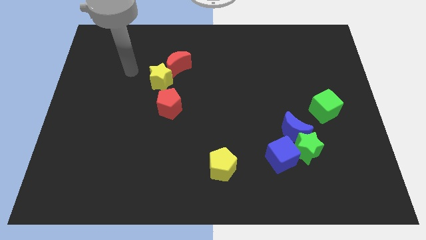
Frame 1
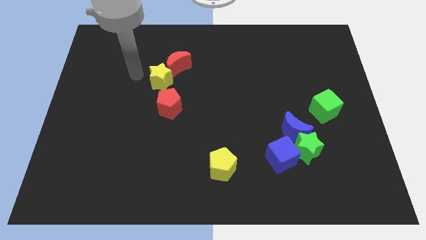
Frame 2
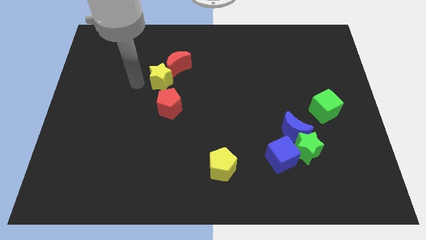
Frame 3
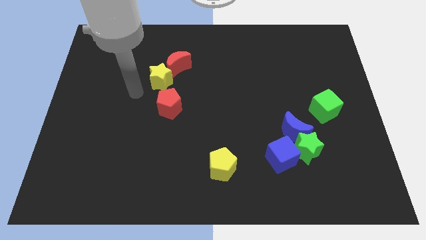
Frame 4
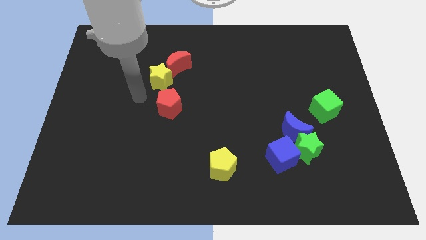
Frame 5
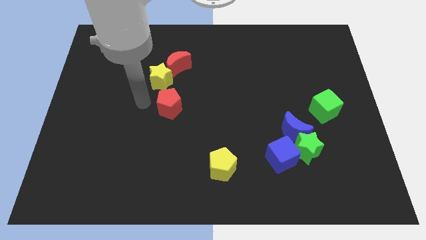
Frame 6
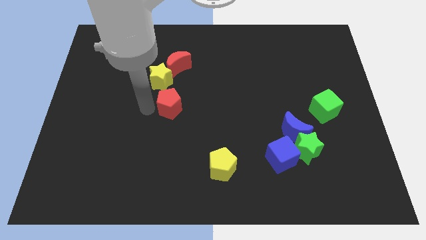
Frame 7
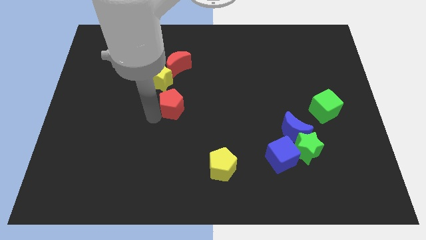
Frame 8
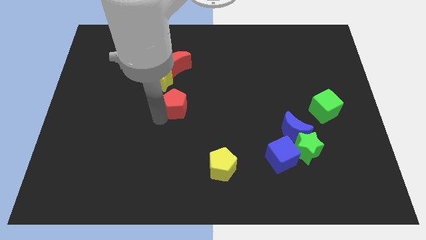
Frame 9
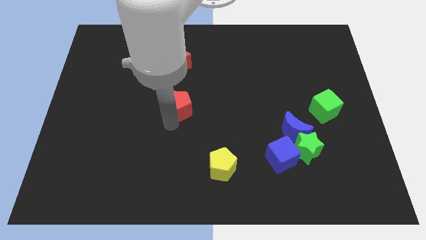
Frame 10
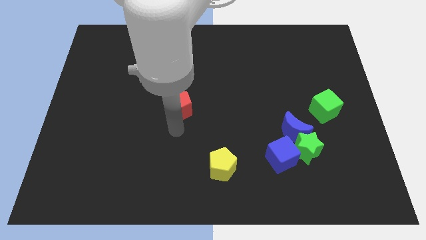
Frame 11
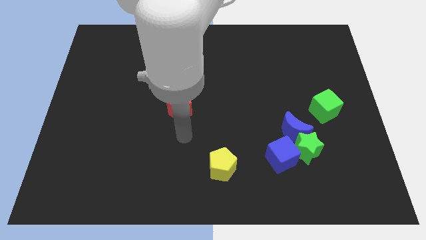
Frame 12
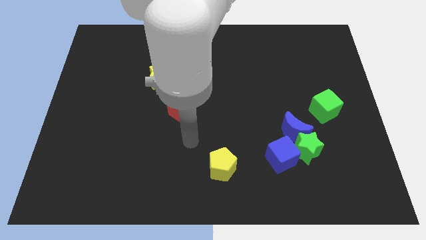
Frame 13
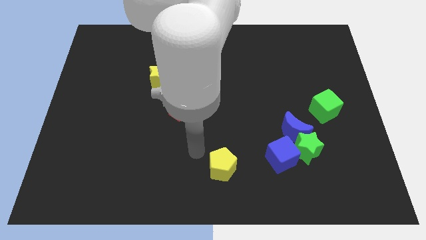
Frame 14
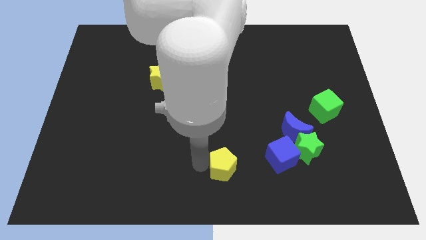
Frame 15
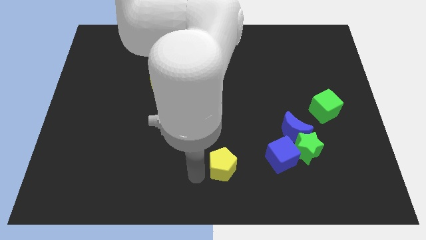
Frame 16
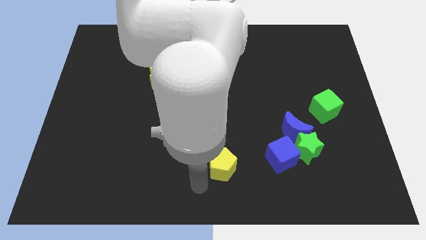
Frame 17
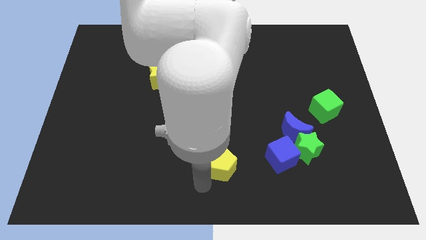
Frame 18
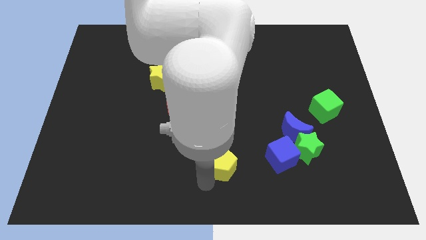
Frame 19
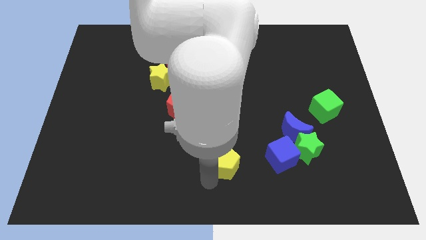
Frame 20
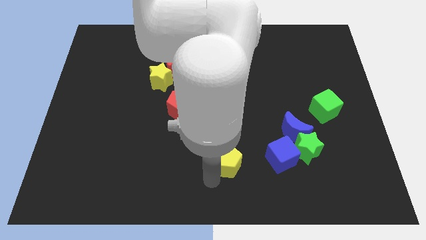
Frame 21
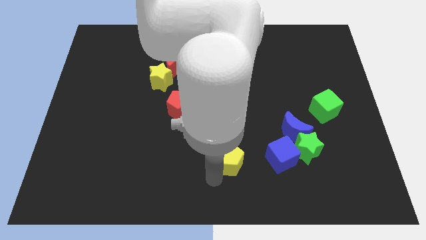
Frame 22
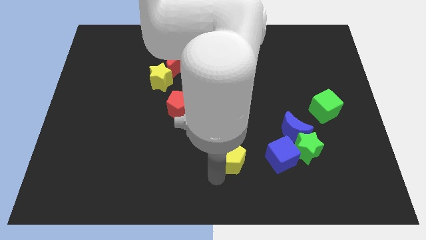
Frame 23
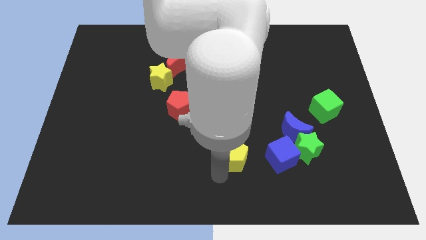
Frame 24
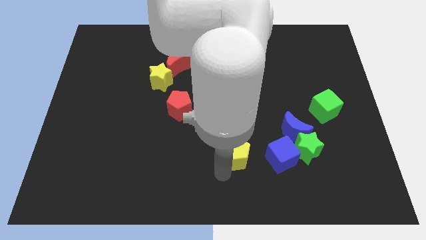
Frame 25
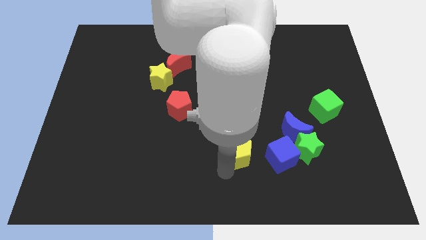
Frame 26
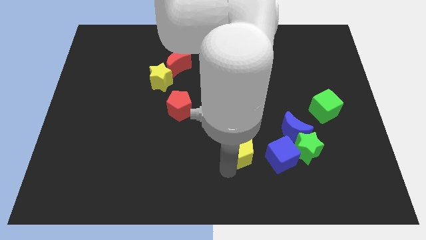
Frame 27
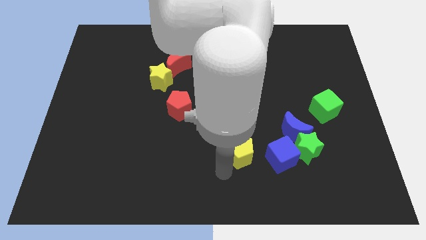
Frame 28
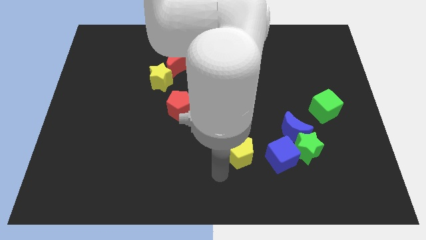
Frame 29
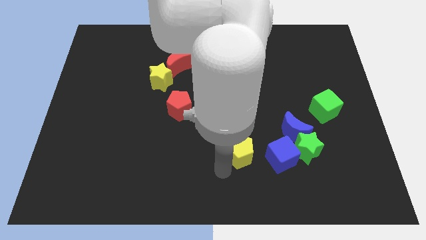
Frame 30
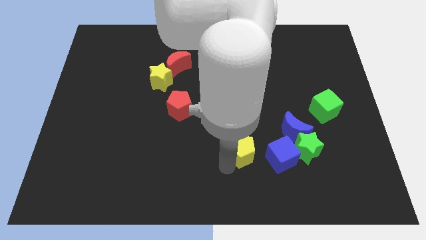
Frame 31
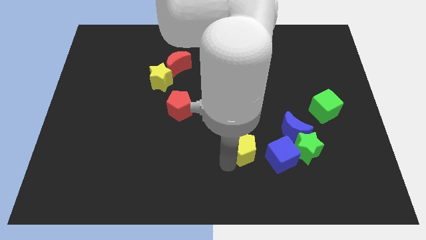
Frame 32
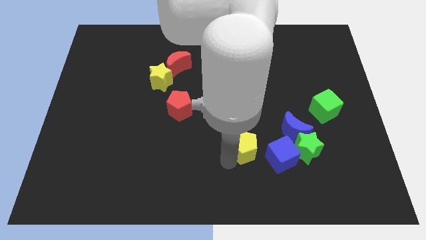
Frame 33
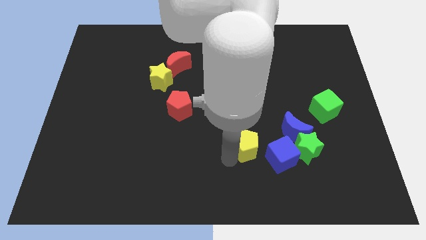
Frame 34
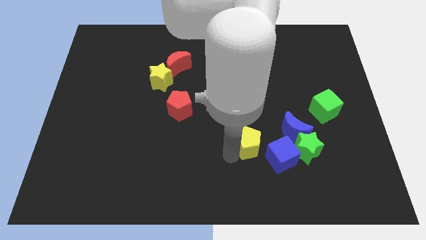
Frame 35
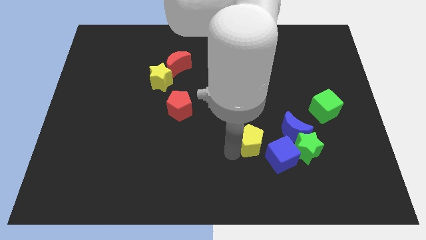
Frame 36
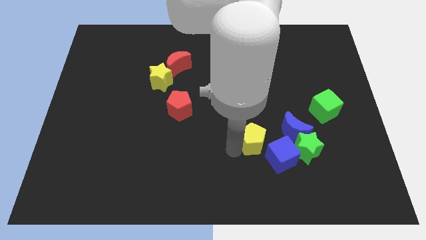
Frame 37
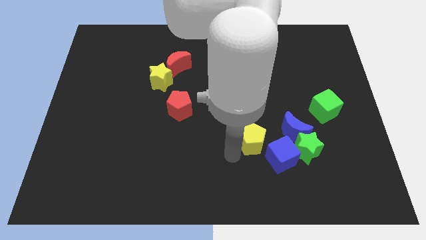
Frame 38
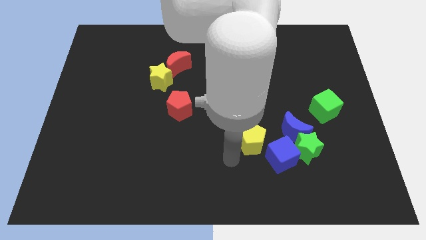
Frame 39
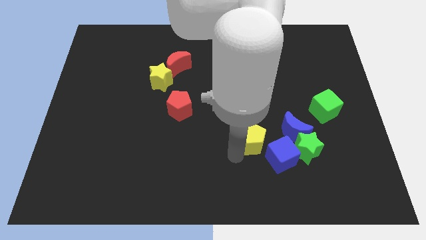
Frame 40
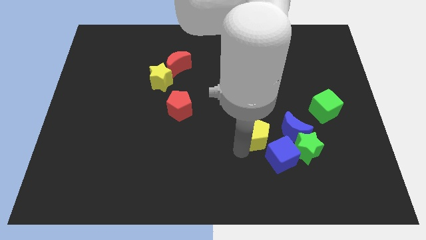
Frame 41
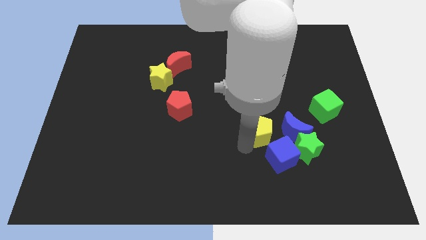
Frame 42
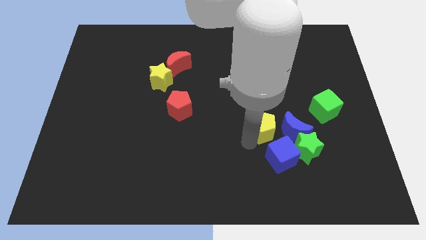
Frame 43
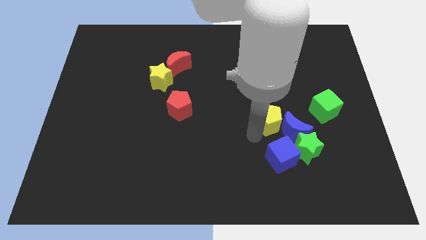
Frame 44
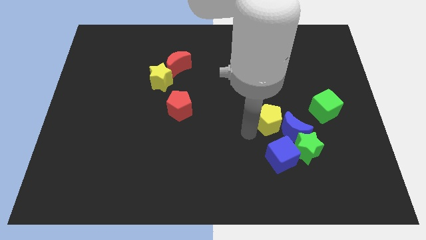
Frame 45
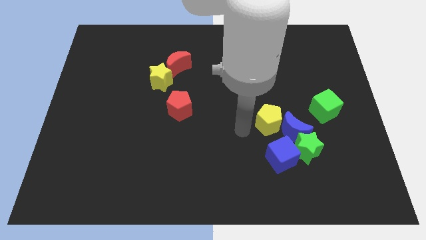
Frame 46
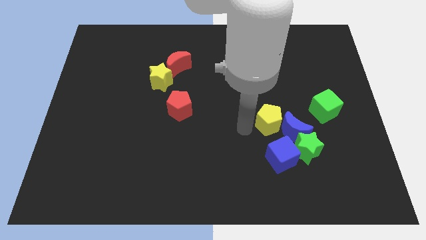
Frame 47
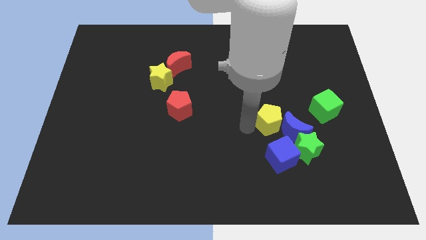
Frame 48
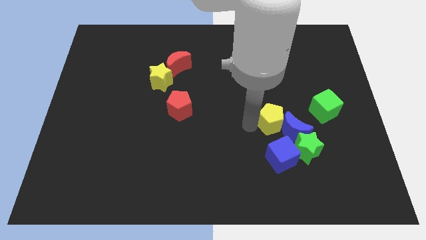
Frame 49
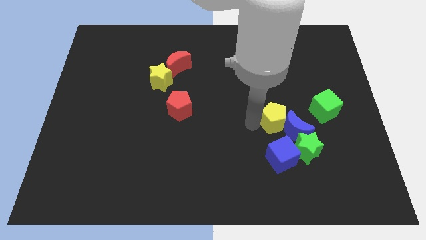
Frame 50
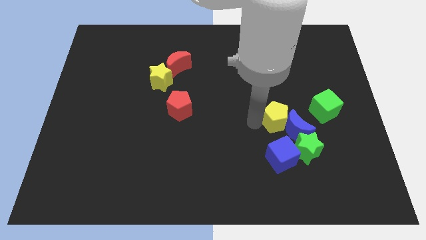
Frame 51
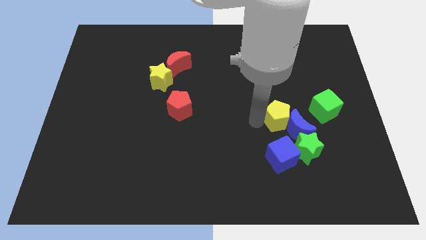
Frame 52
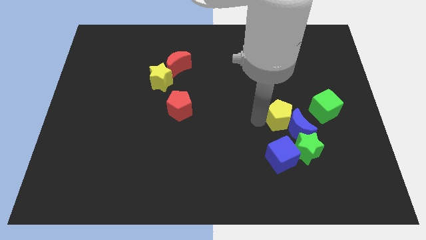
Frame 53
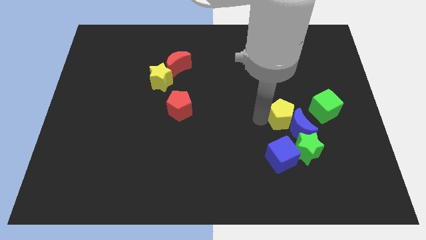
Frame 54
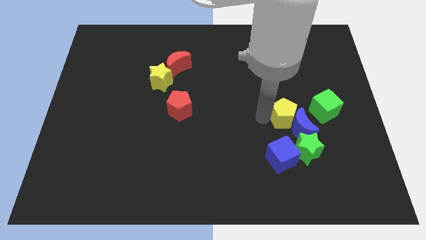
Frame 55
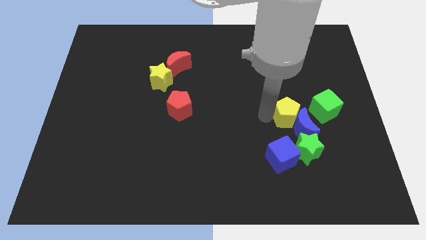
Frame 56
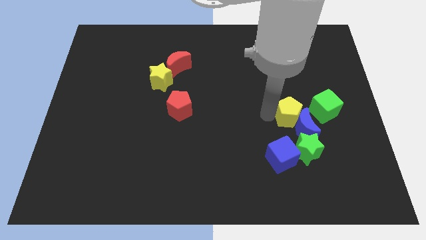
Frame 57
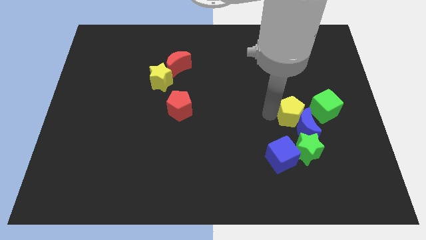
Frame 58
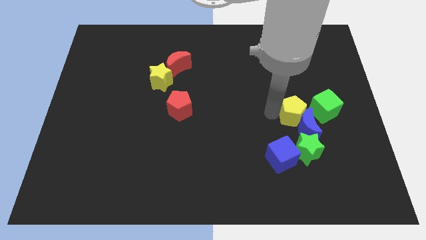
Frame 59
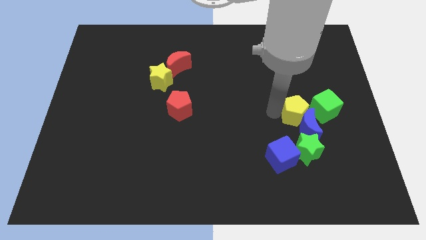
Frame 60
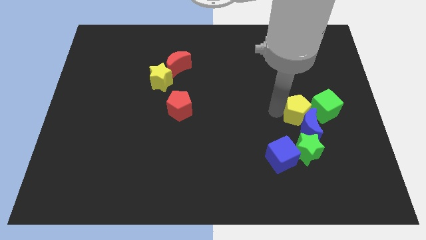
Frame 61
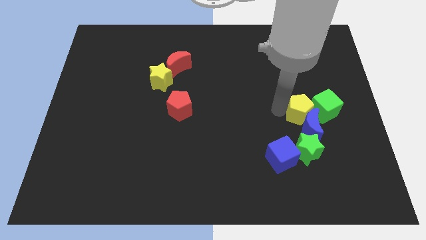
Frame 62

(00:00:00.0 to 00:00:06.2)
push the yellow pentagon towards the green cube

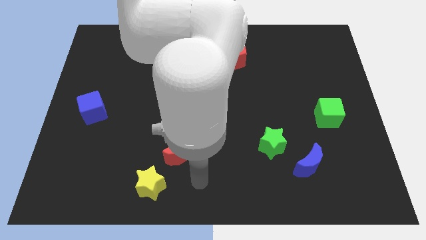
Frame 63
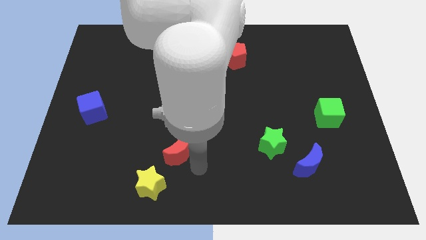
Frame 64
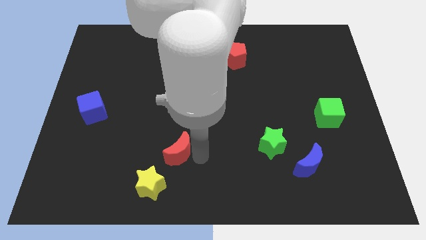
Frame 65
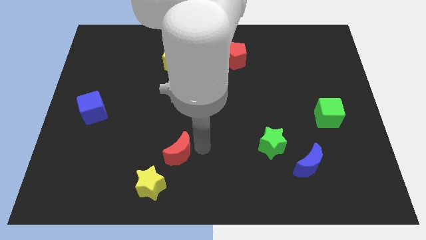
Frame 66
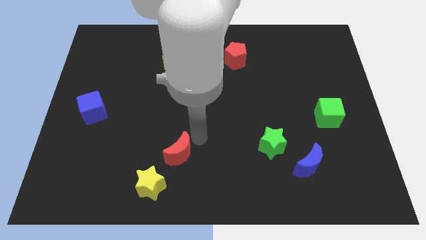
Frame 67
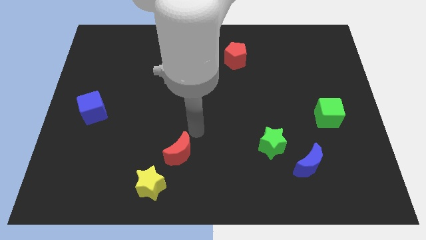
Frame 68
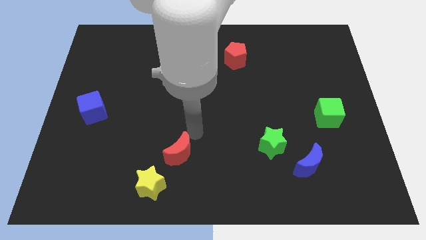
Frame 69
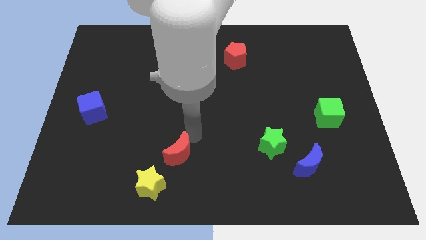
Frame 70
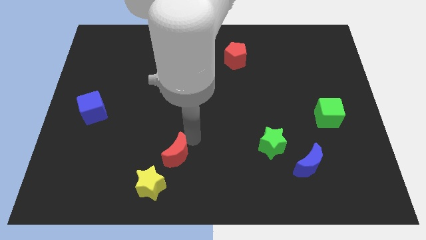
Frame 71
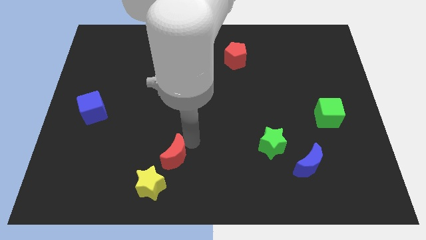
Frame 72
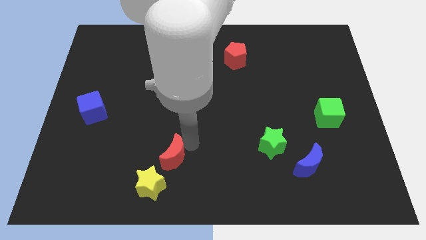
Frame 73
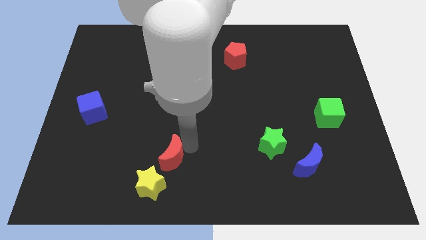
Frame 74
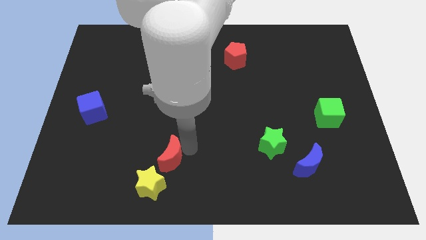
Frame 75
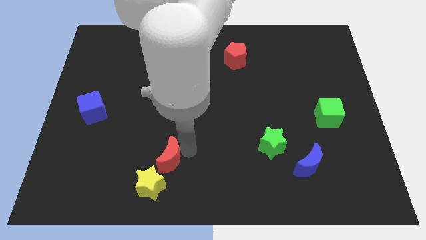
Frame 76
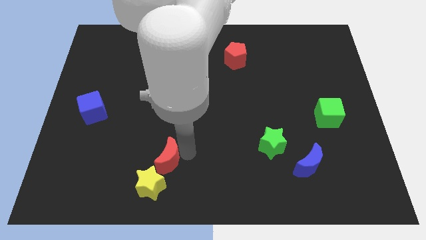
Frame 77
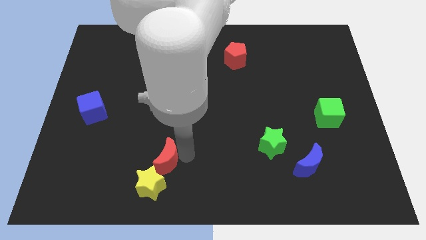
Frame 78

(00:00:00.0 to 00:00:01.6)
push the red moon towards the yellow star
